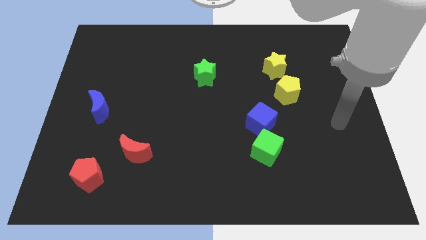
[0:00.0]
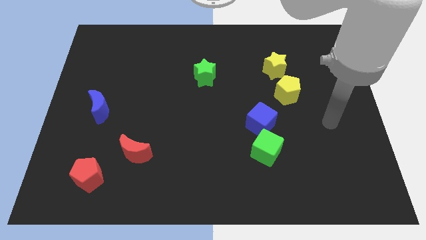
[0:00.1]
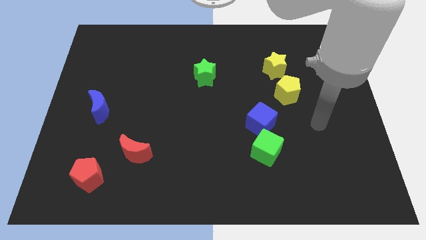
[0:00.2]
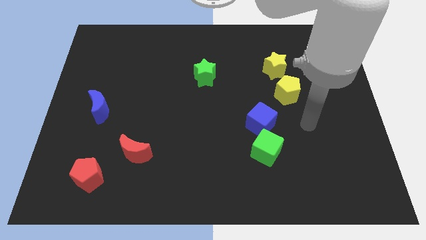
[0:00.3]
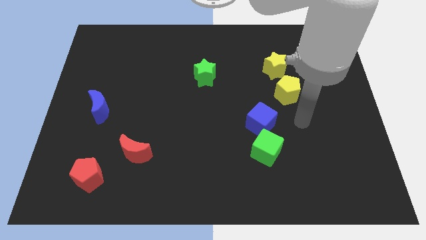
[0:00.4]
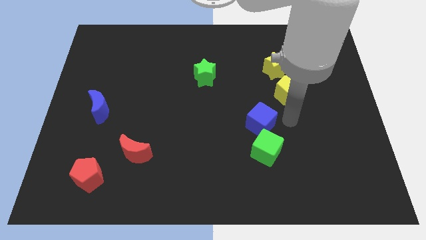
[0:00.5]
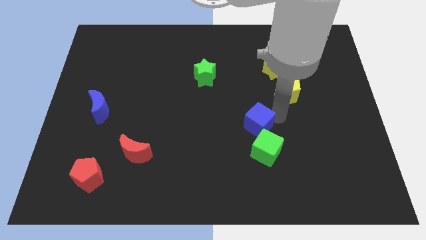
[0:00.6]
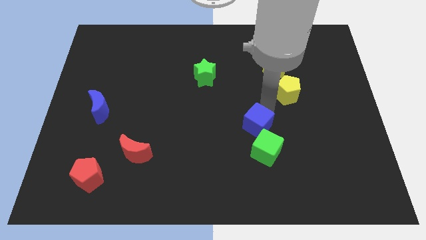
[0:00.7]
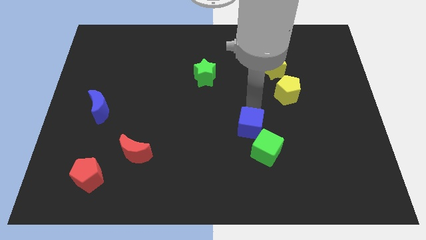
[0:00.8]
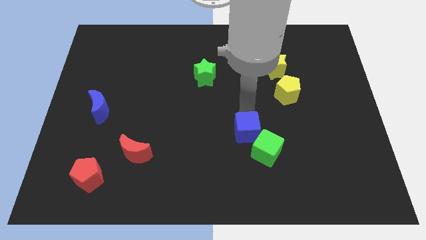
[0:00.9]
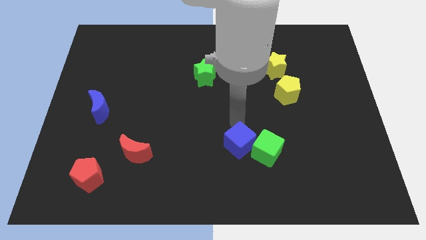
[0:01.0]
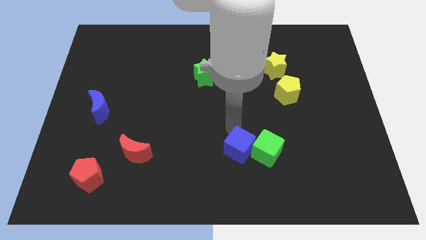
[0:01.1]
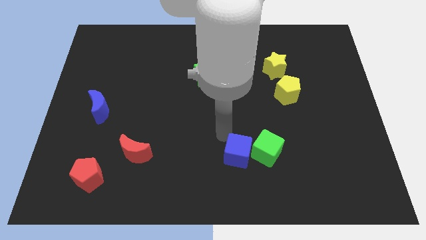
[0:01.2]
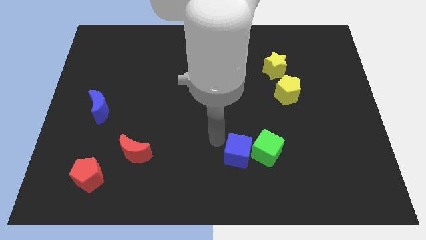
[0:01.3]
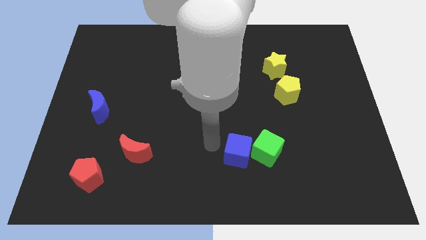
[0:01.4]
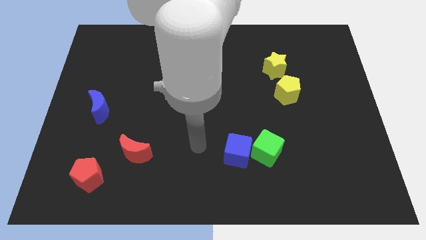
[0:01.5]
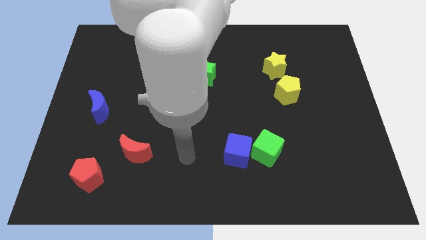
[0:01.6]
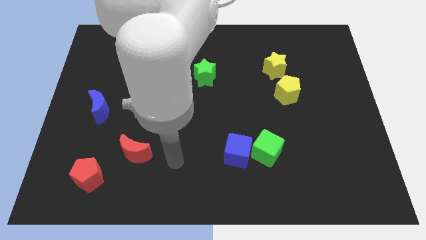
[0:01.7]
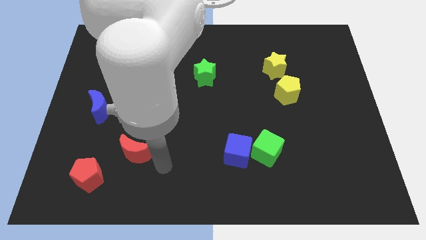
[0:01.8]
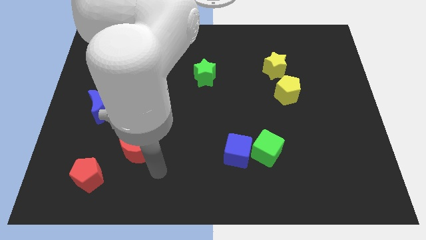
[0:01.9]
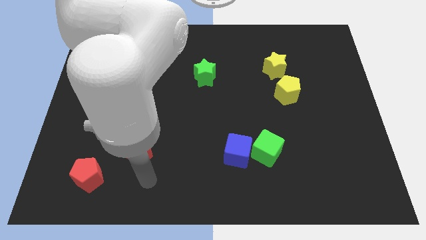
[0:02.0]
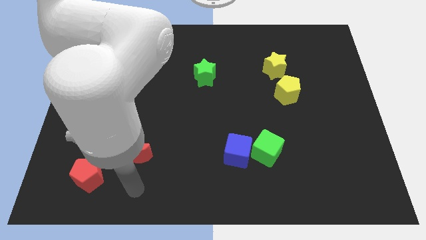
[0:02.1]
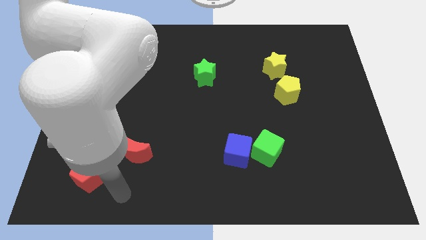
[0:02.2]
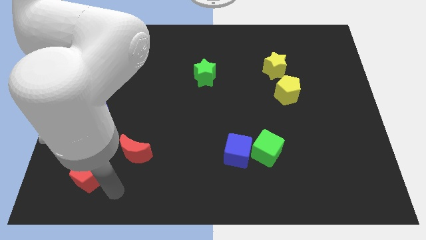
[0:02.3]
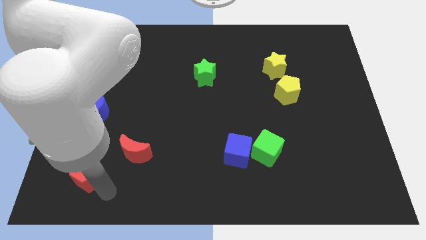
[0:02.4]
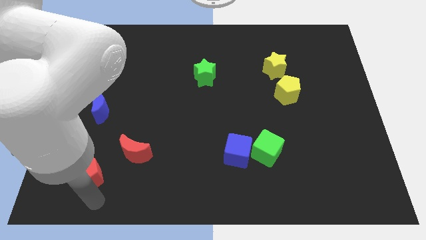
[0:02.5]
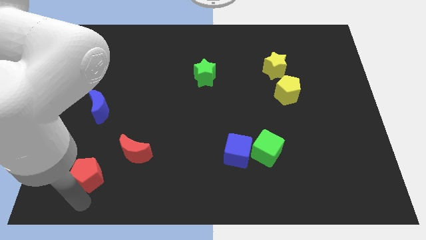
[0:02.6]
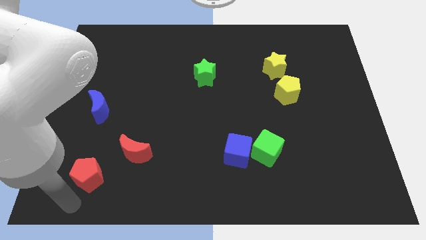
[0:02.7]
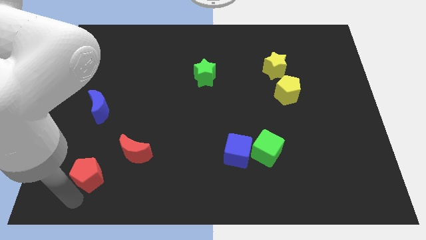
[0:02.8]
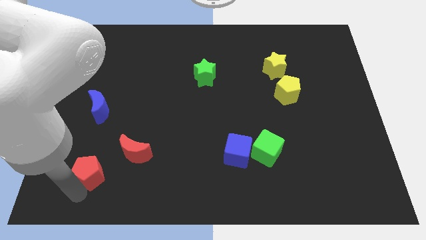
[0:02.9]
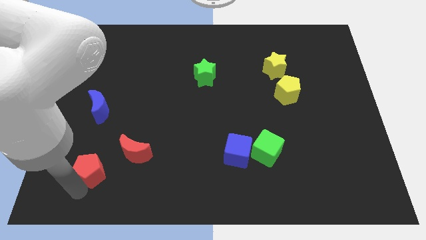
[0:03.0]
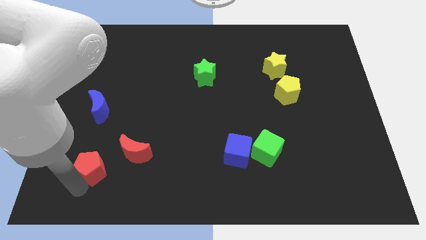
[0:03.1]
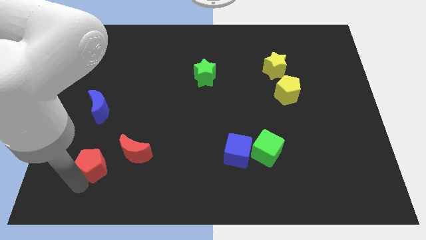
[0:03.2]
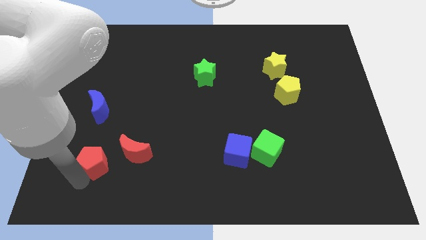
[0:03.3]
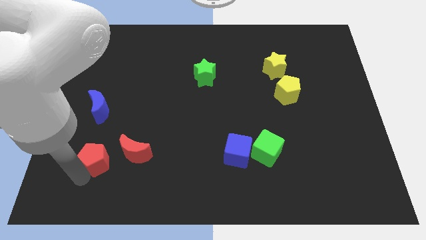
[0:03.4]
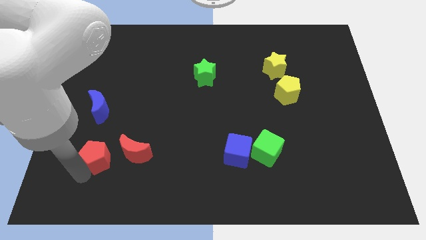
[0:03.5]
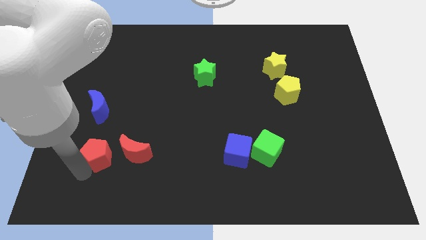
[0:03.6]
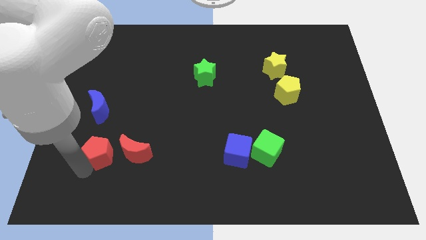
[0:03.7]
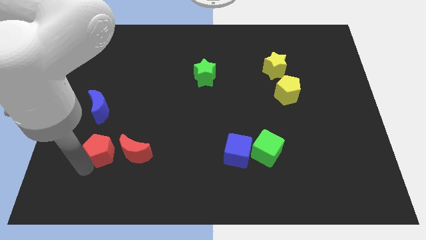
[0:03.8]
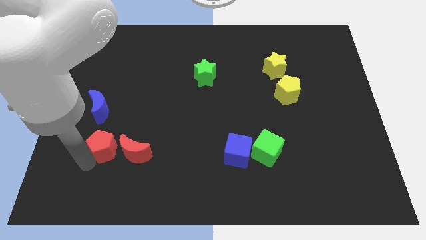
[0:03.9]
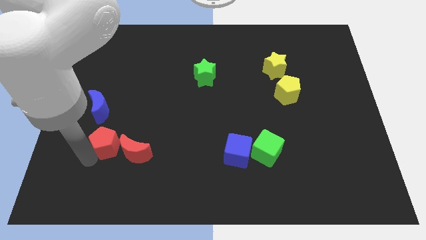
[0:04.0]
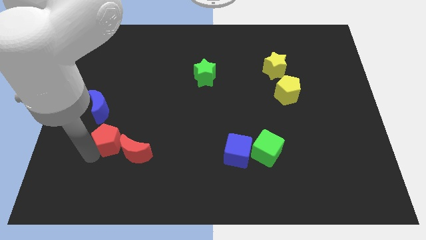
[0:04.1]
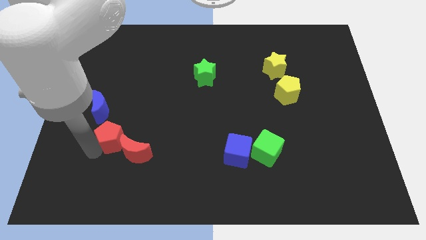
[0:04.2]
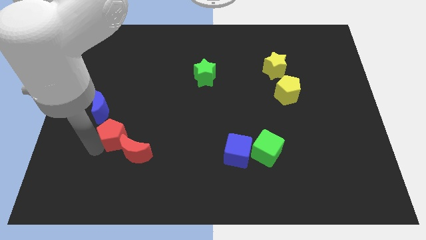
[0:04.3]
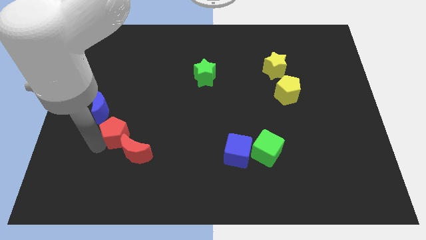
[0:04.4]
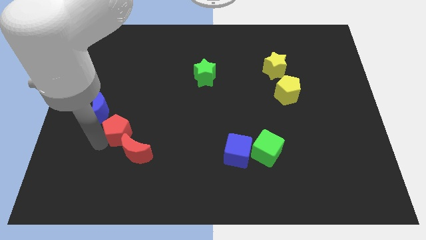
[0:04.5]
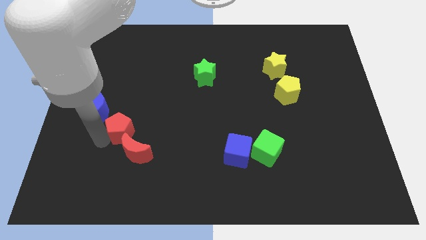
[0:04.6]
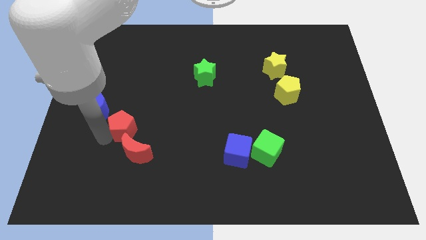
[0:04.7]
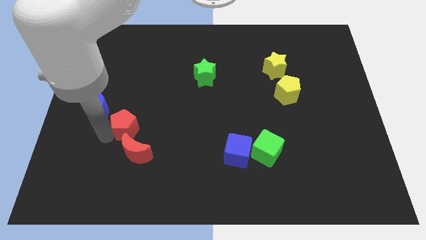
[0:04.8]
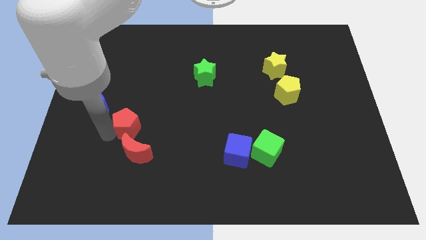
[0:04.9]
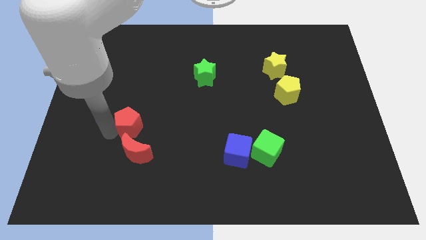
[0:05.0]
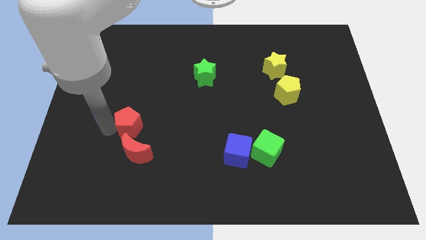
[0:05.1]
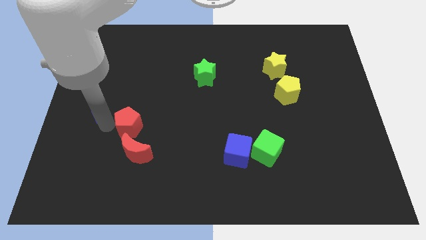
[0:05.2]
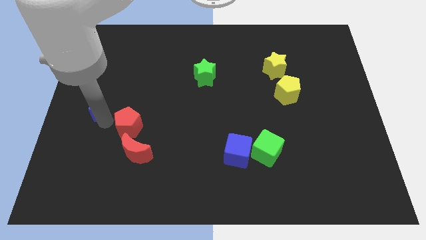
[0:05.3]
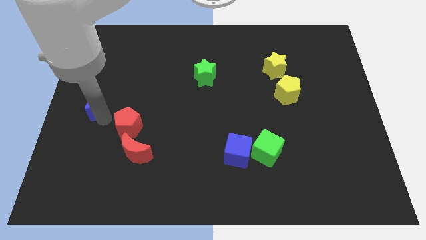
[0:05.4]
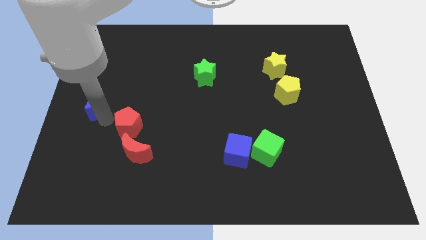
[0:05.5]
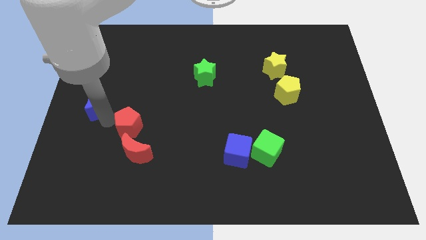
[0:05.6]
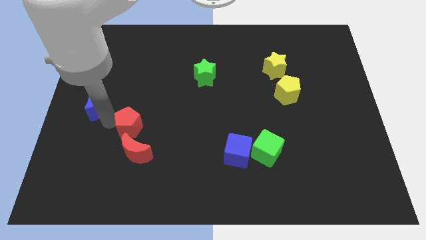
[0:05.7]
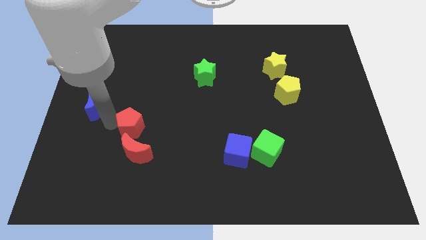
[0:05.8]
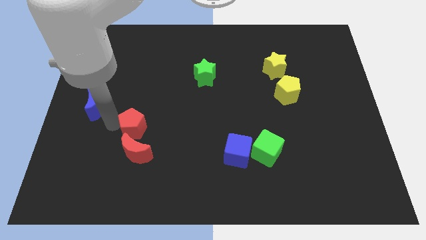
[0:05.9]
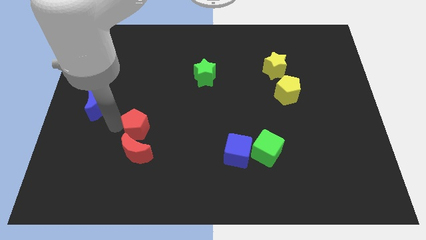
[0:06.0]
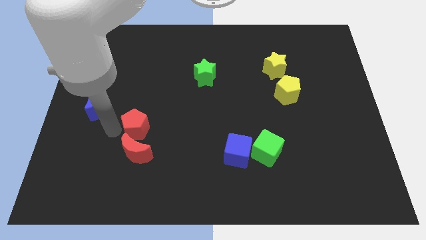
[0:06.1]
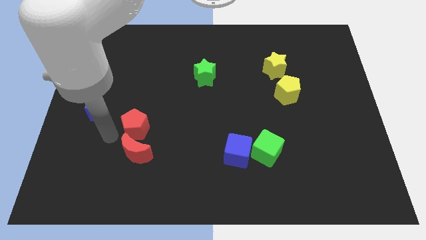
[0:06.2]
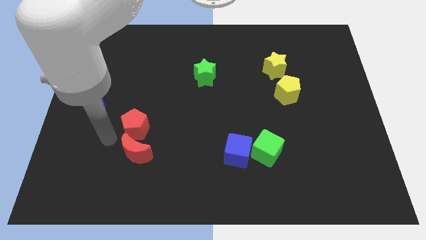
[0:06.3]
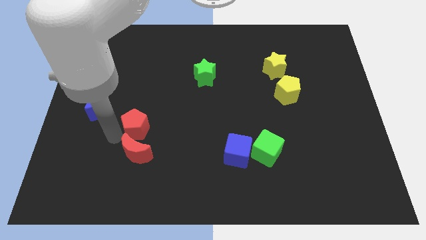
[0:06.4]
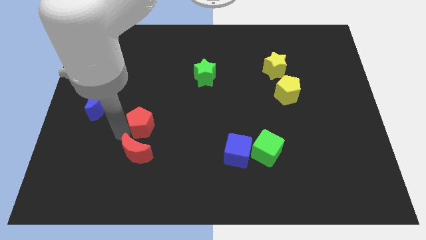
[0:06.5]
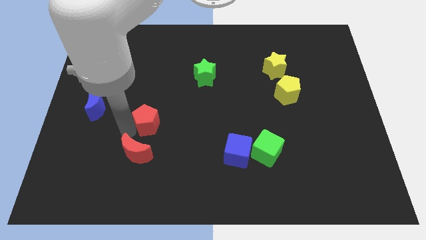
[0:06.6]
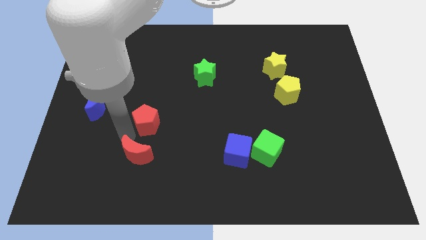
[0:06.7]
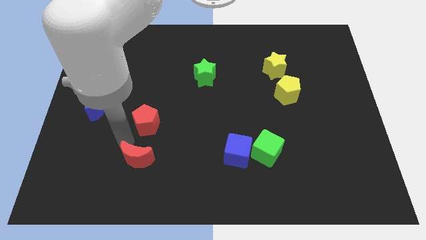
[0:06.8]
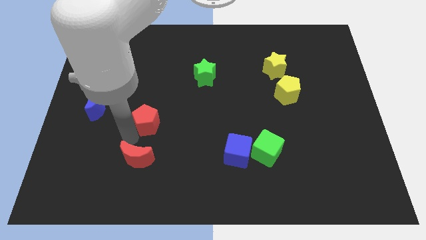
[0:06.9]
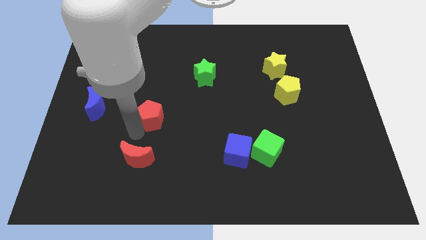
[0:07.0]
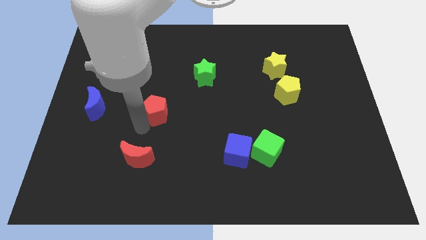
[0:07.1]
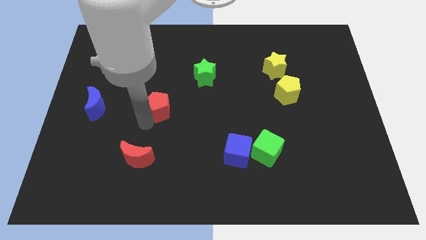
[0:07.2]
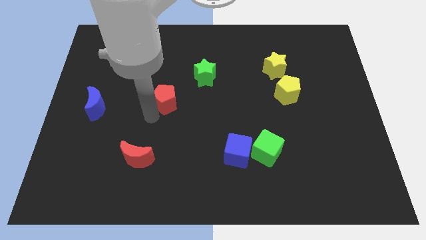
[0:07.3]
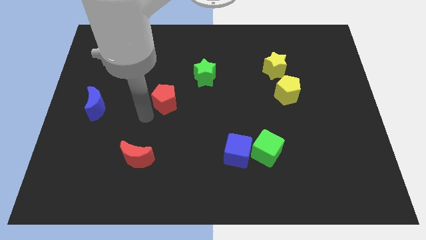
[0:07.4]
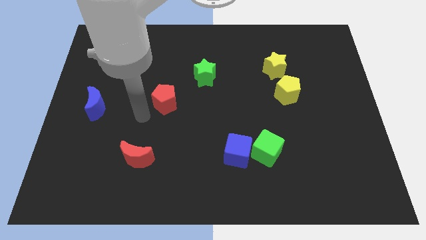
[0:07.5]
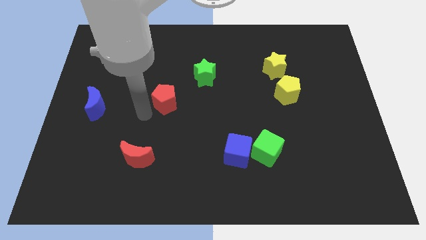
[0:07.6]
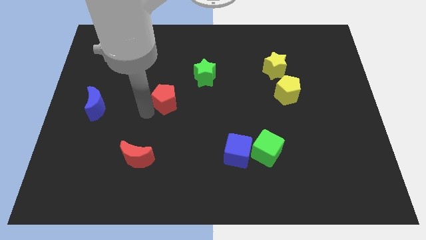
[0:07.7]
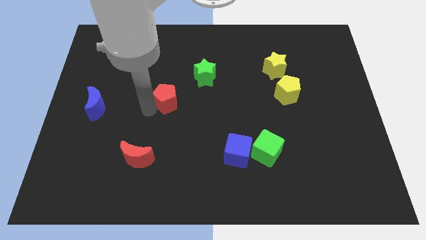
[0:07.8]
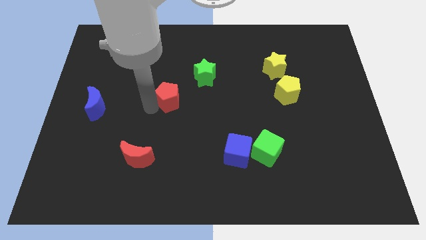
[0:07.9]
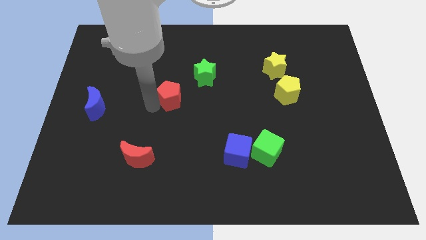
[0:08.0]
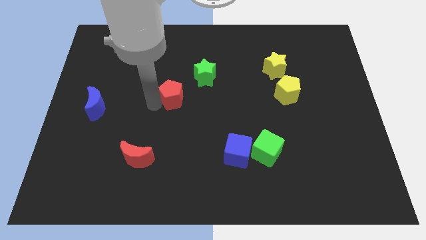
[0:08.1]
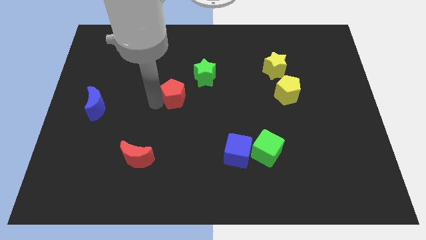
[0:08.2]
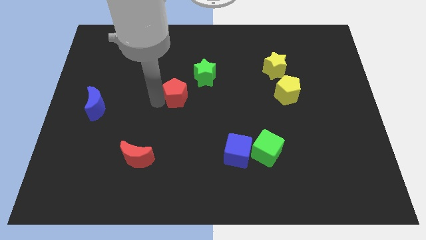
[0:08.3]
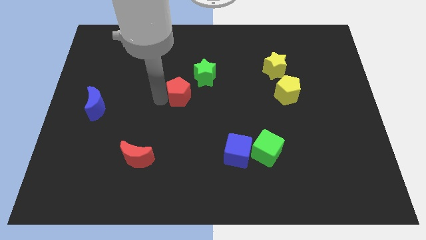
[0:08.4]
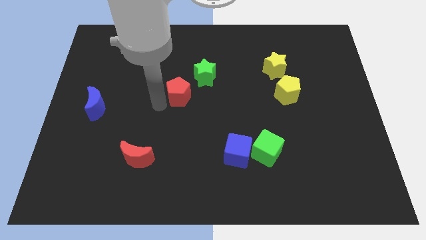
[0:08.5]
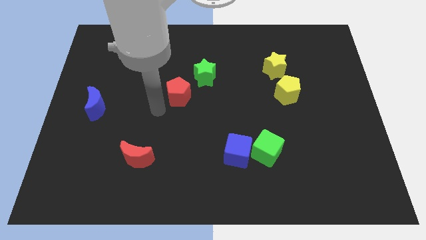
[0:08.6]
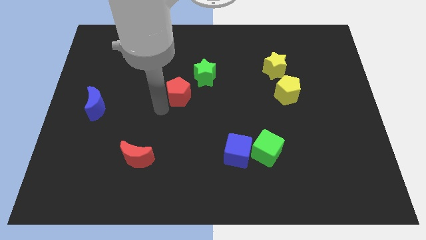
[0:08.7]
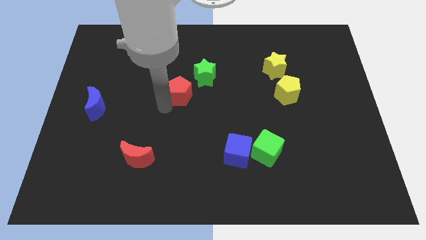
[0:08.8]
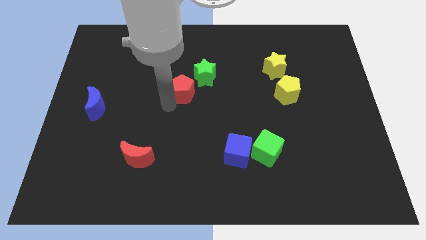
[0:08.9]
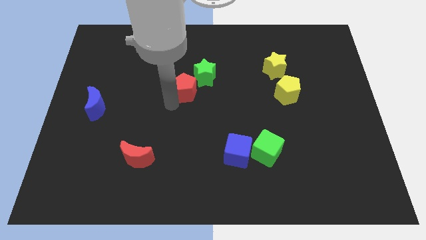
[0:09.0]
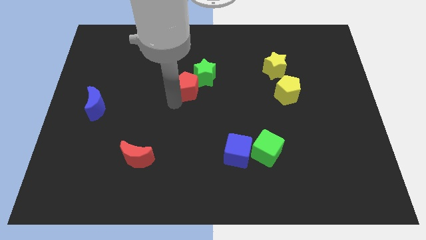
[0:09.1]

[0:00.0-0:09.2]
push the red pentagon close to the green star
